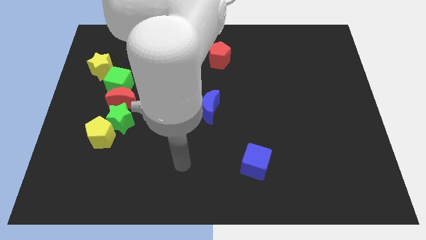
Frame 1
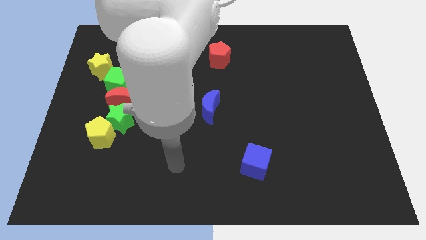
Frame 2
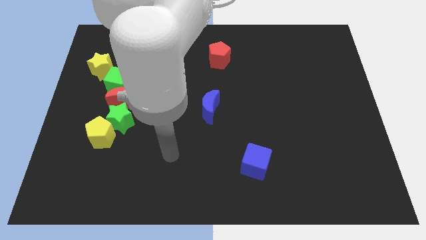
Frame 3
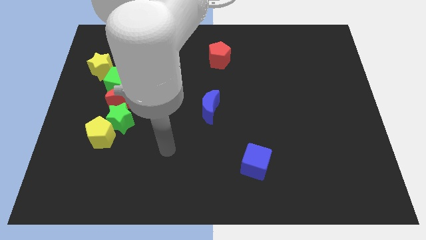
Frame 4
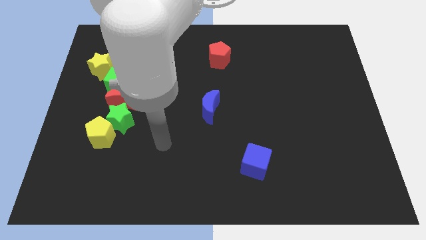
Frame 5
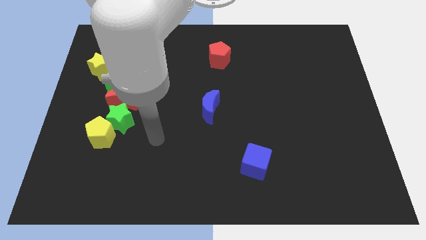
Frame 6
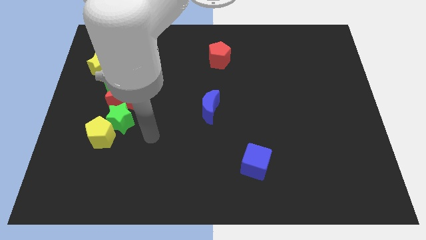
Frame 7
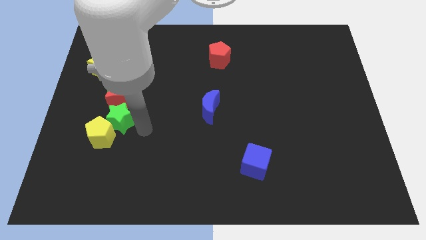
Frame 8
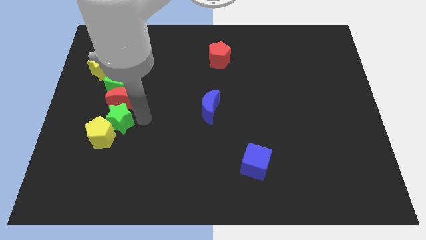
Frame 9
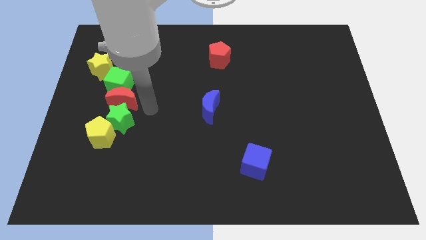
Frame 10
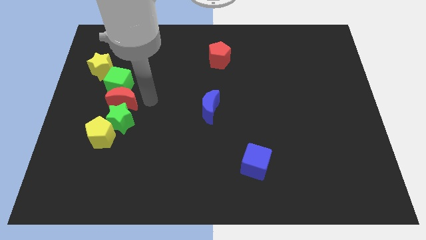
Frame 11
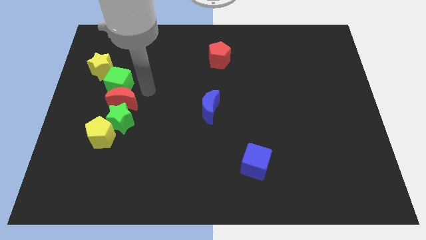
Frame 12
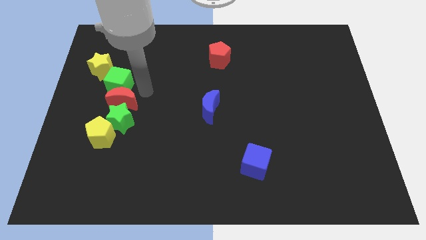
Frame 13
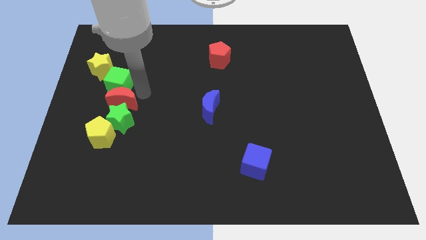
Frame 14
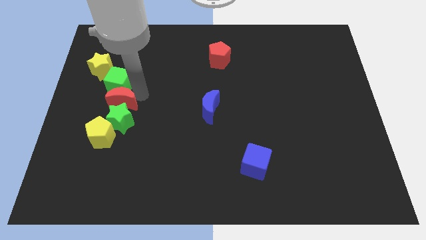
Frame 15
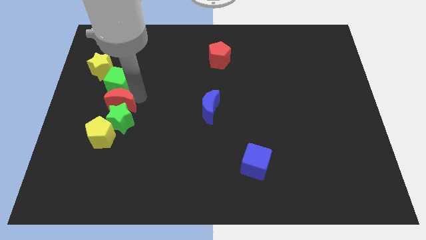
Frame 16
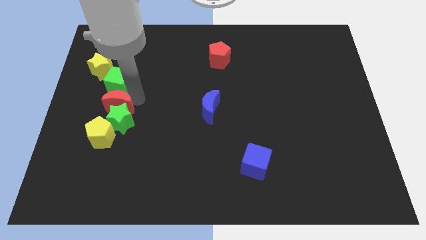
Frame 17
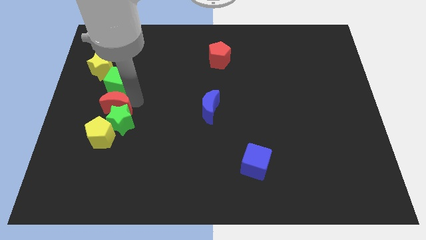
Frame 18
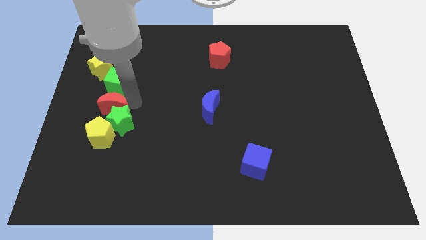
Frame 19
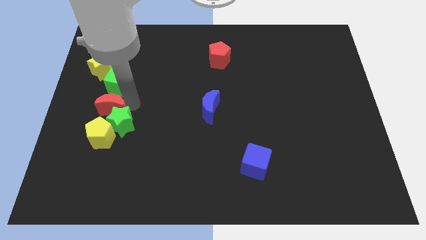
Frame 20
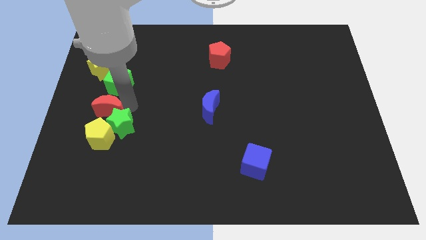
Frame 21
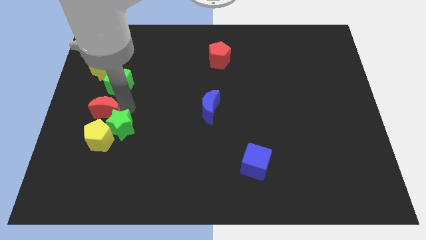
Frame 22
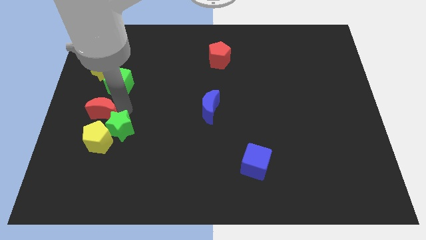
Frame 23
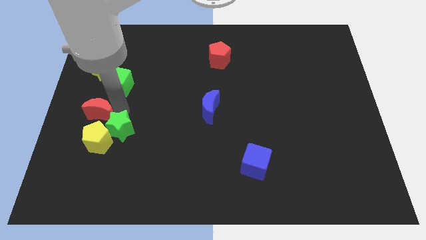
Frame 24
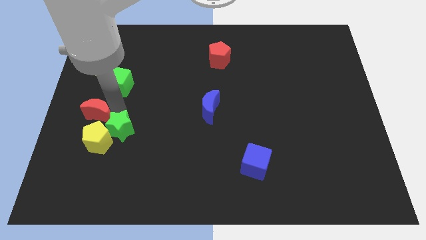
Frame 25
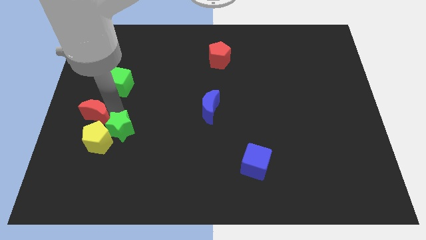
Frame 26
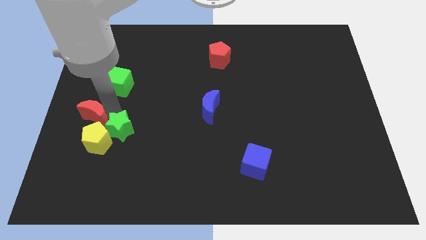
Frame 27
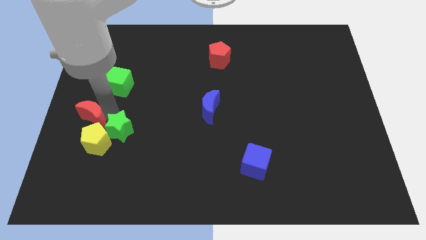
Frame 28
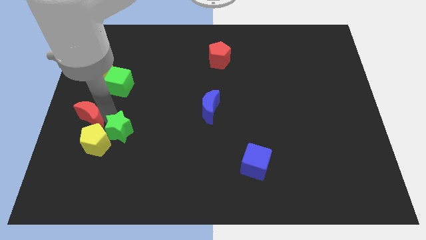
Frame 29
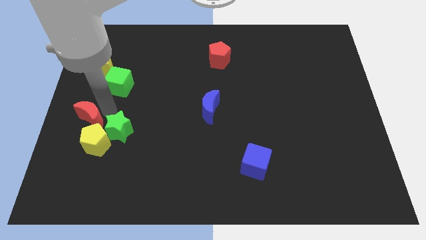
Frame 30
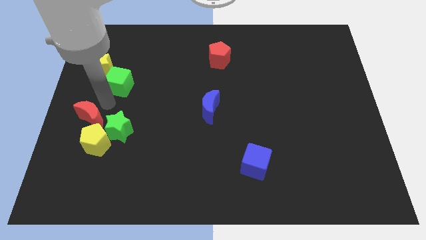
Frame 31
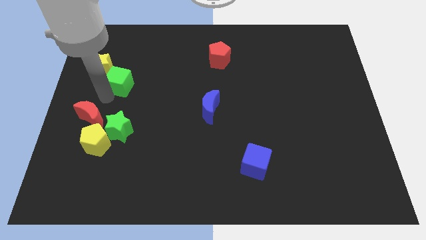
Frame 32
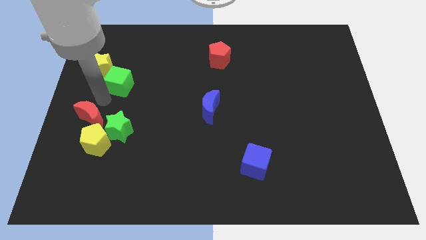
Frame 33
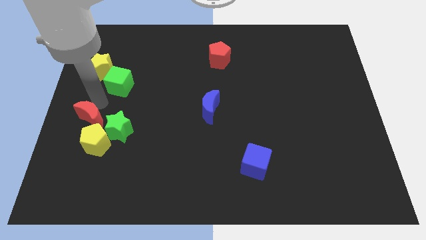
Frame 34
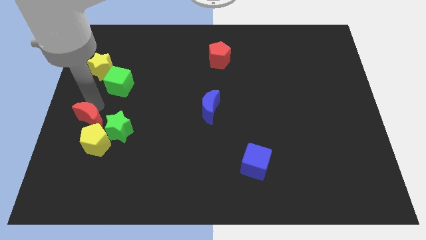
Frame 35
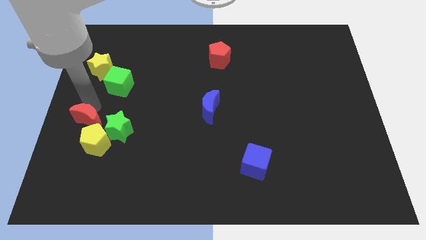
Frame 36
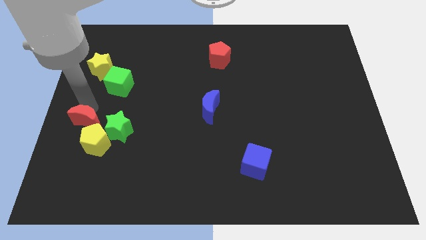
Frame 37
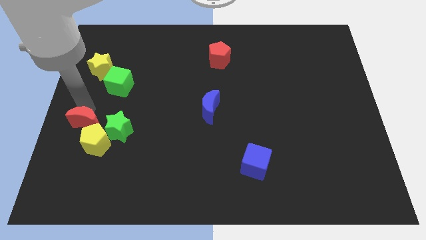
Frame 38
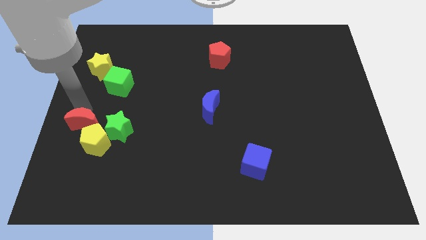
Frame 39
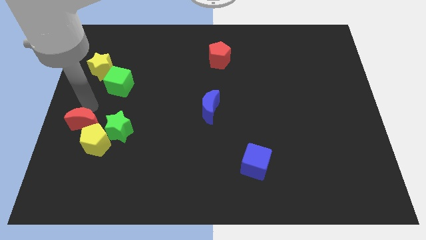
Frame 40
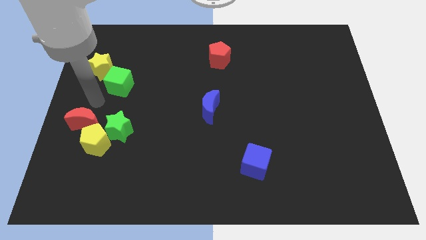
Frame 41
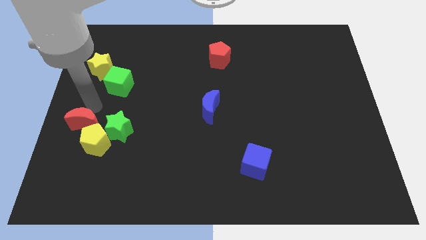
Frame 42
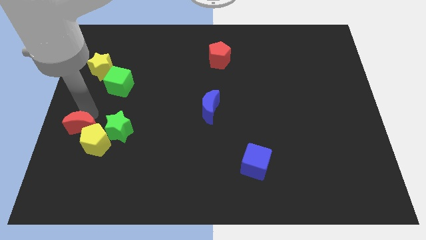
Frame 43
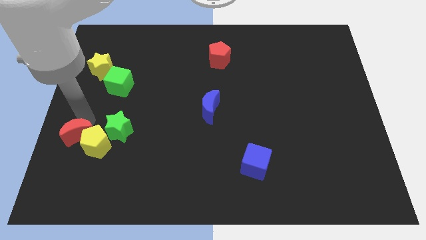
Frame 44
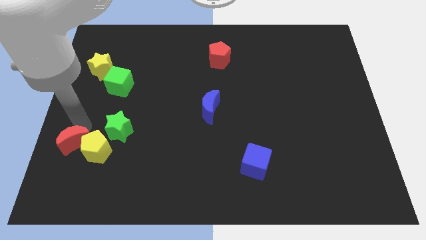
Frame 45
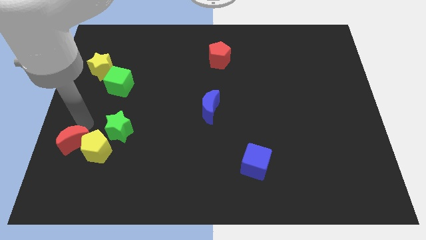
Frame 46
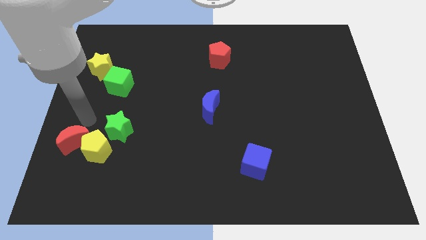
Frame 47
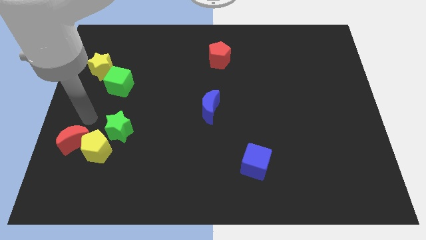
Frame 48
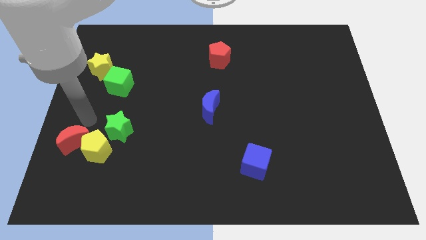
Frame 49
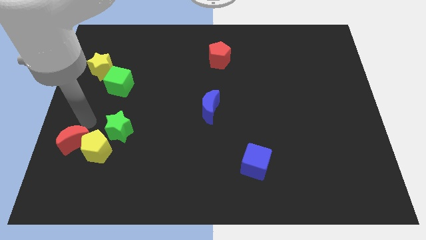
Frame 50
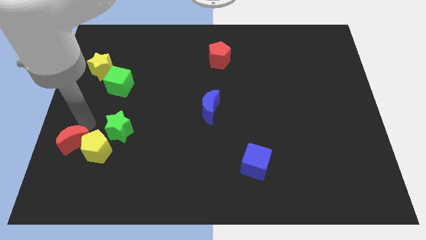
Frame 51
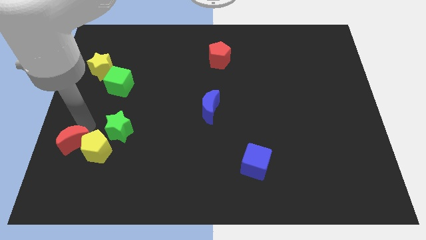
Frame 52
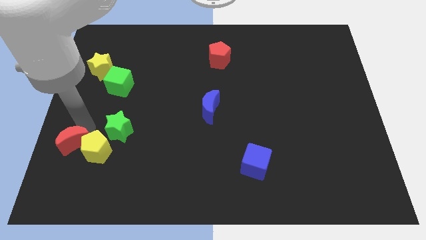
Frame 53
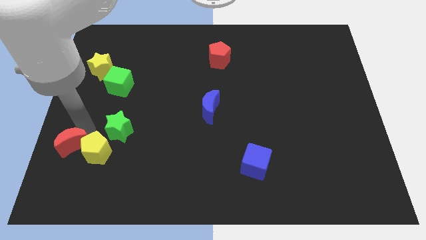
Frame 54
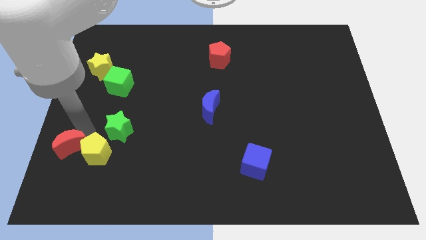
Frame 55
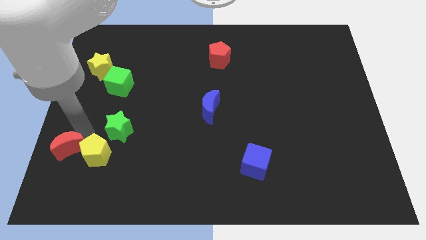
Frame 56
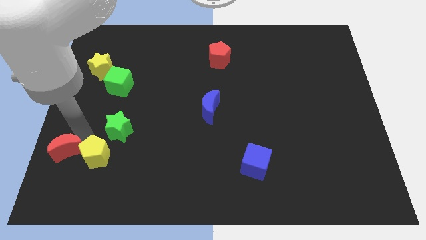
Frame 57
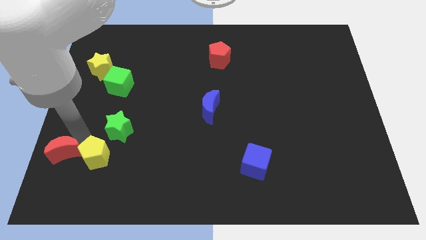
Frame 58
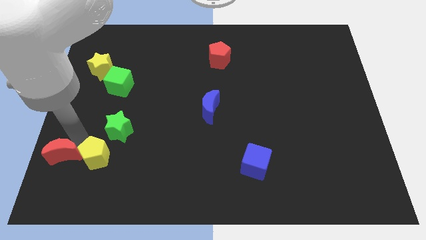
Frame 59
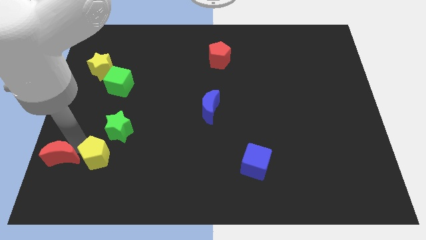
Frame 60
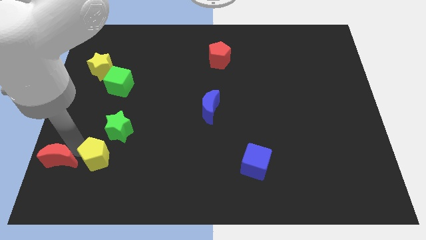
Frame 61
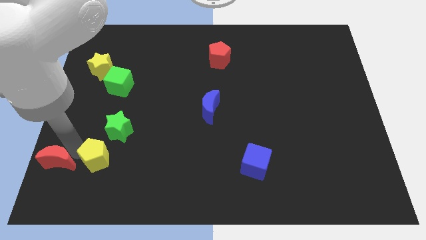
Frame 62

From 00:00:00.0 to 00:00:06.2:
push the red moon to the bottom left of the board

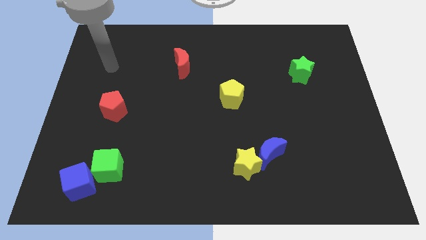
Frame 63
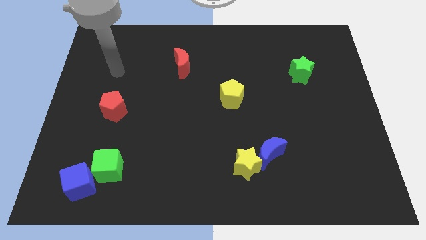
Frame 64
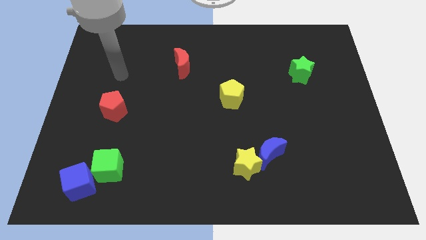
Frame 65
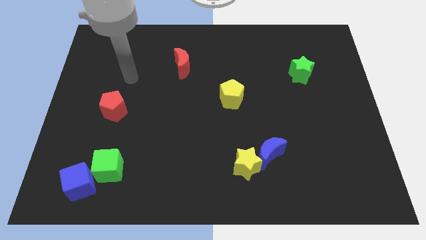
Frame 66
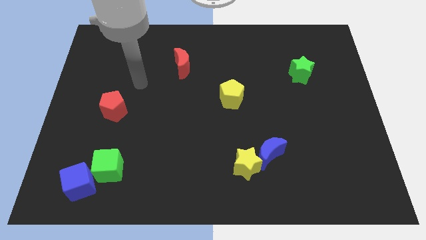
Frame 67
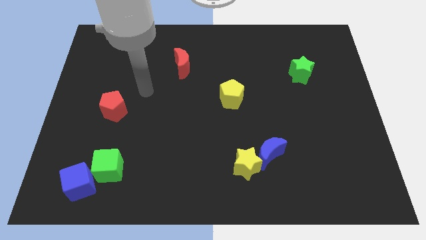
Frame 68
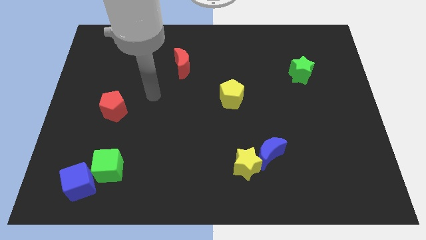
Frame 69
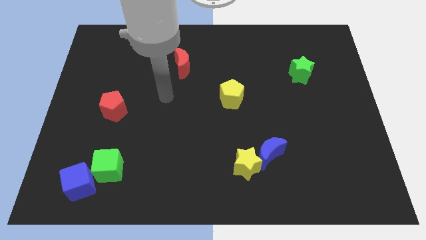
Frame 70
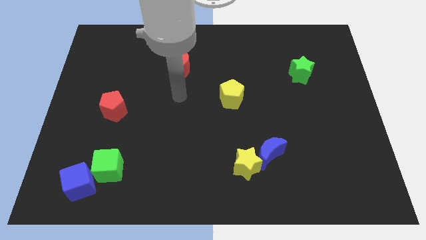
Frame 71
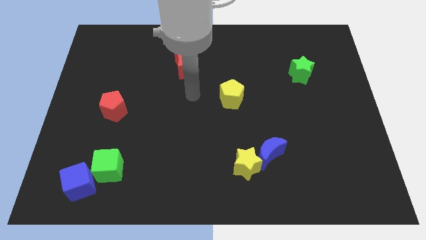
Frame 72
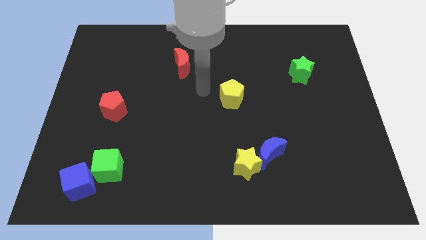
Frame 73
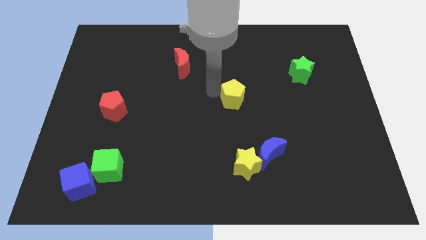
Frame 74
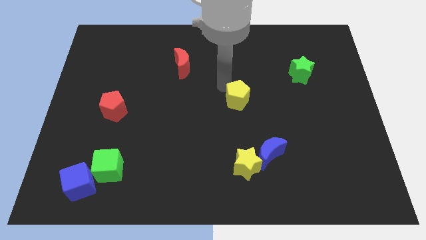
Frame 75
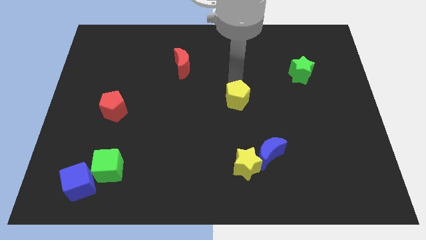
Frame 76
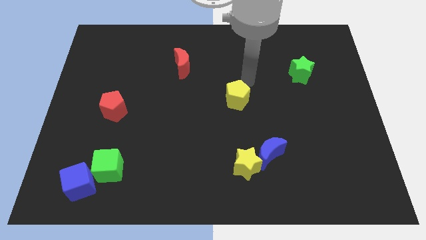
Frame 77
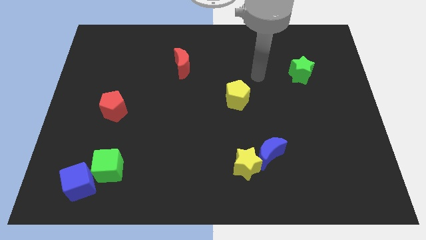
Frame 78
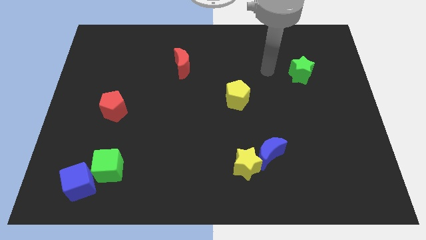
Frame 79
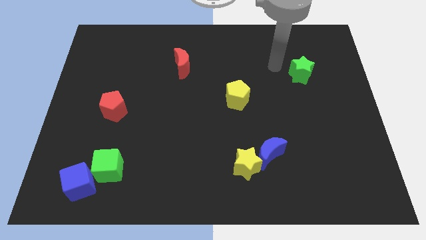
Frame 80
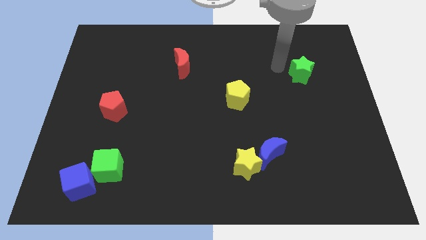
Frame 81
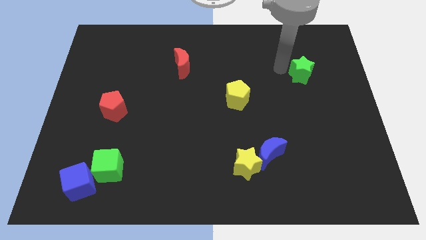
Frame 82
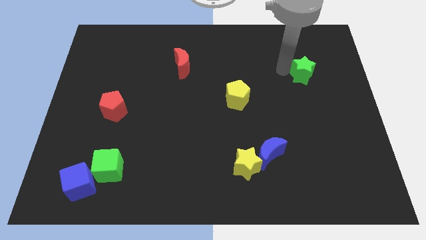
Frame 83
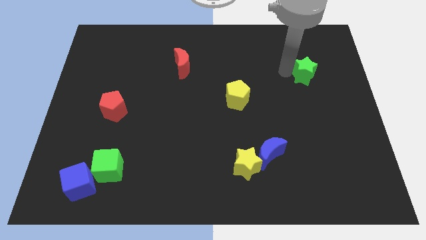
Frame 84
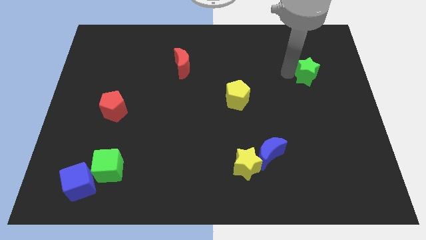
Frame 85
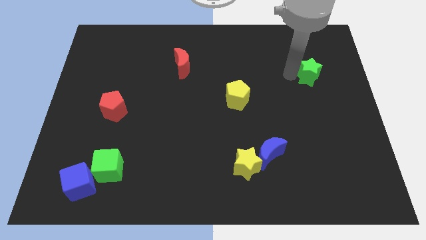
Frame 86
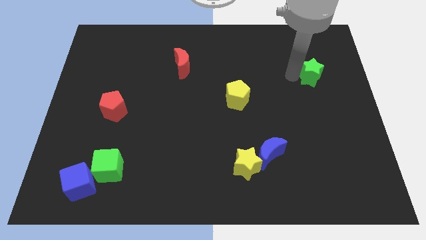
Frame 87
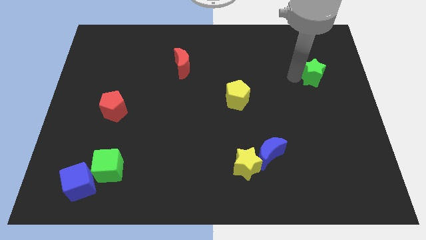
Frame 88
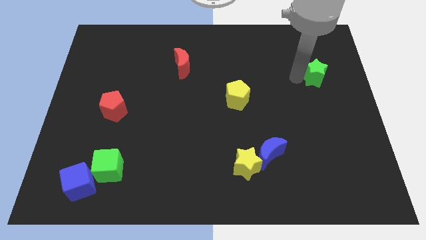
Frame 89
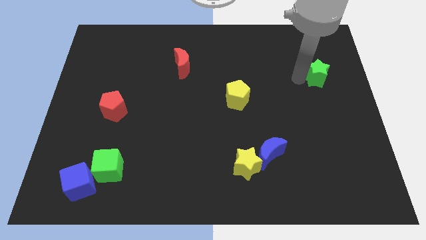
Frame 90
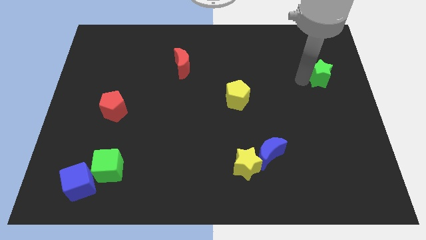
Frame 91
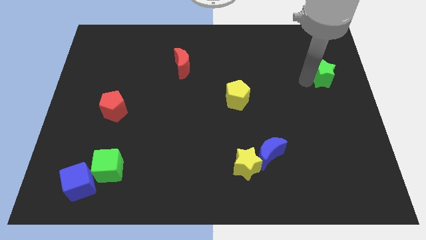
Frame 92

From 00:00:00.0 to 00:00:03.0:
move the green star to the right side of the board
